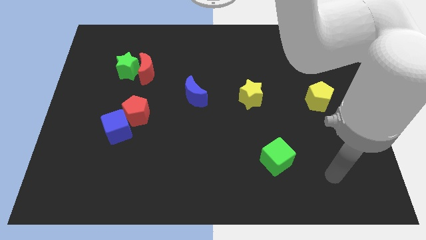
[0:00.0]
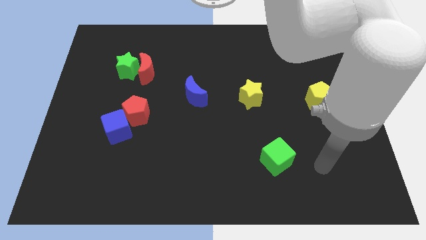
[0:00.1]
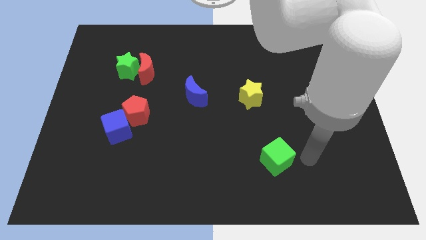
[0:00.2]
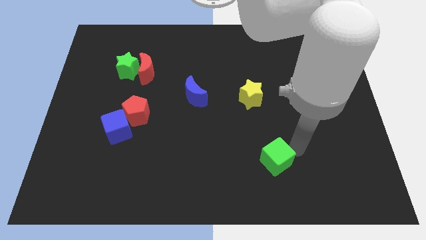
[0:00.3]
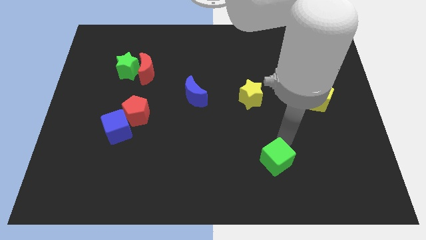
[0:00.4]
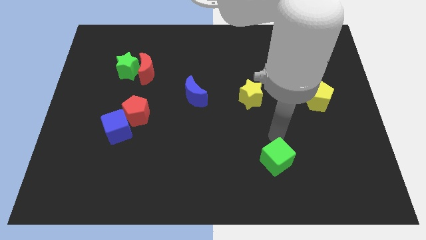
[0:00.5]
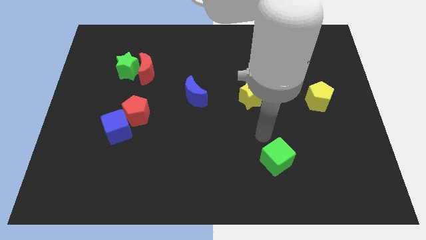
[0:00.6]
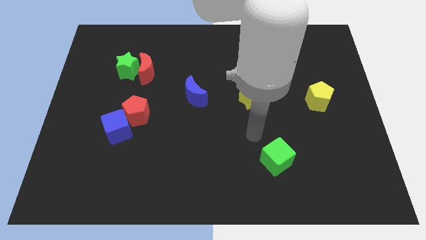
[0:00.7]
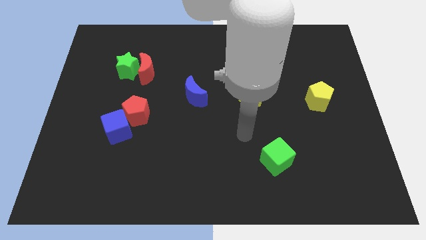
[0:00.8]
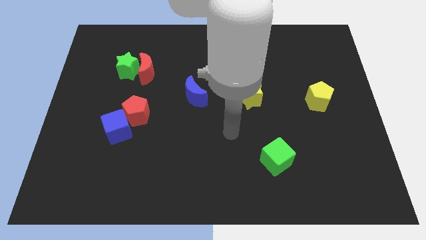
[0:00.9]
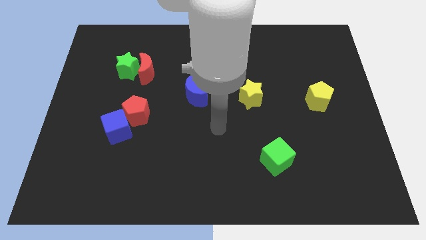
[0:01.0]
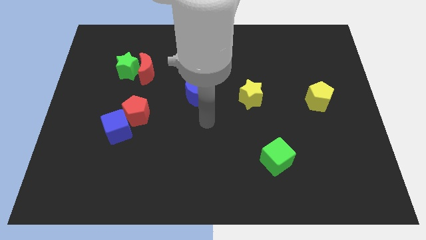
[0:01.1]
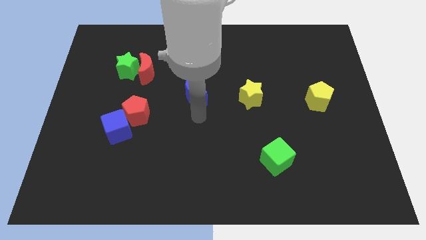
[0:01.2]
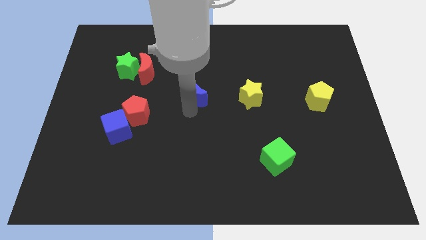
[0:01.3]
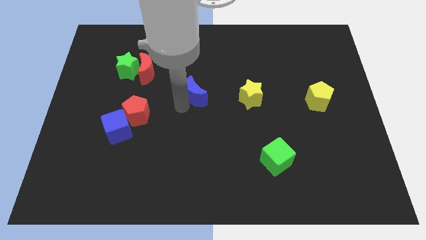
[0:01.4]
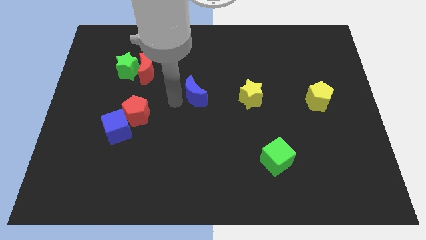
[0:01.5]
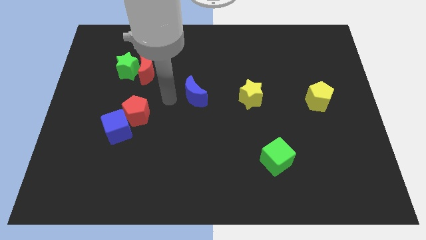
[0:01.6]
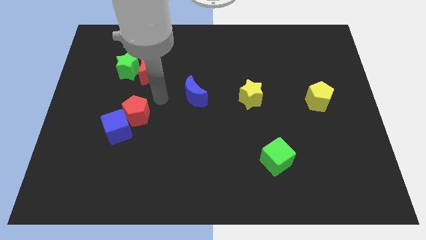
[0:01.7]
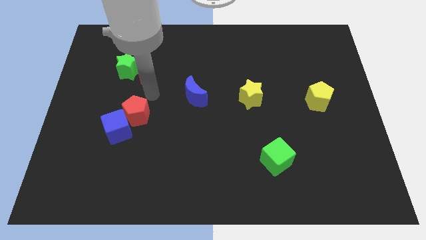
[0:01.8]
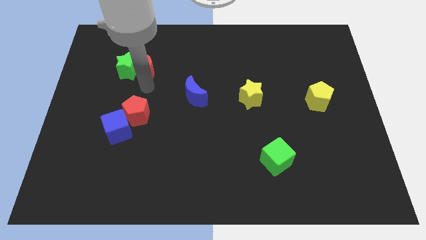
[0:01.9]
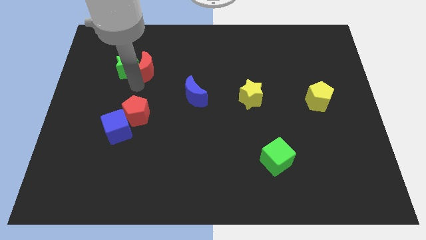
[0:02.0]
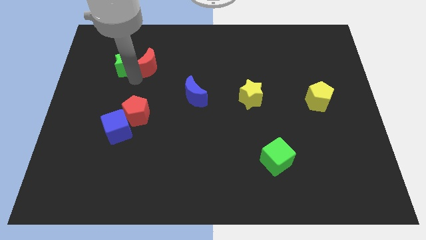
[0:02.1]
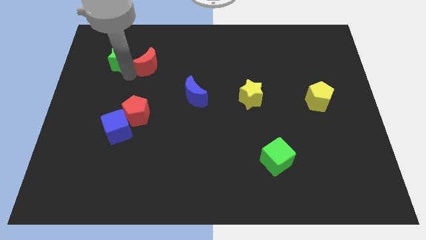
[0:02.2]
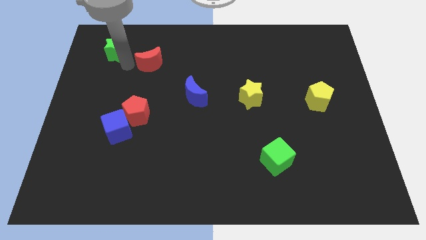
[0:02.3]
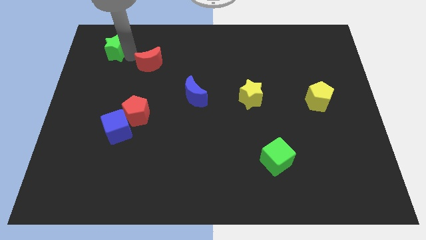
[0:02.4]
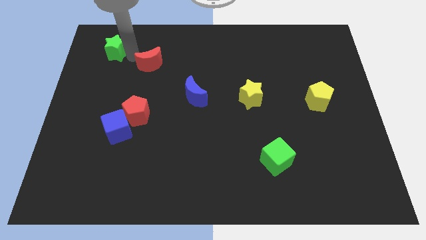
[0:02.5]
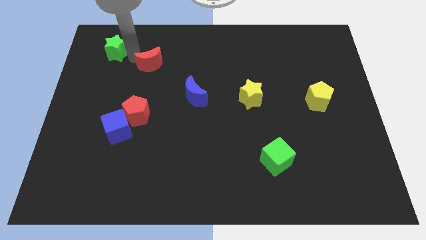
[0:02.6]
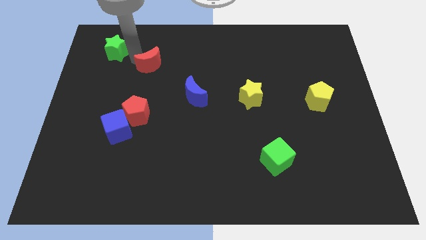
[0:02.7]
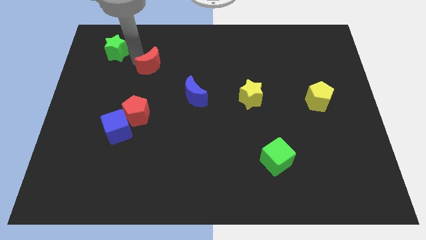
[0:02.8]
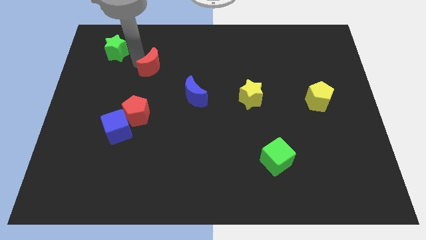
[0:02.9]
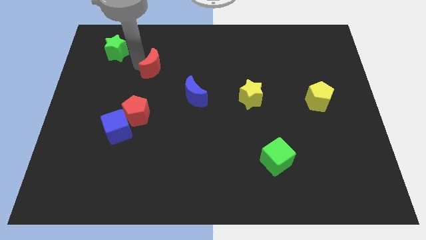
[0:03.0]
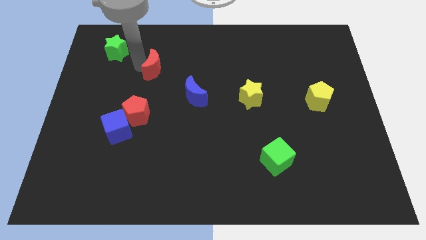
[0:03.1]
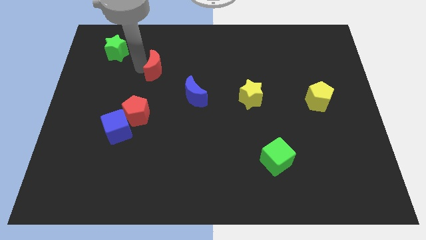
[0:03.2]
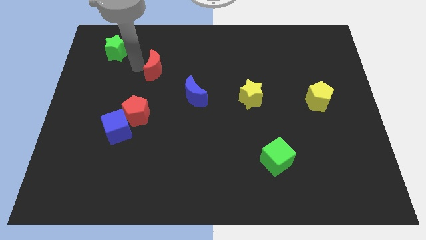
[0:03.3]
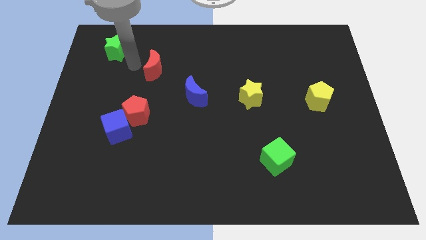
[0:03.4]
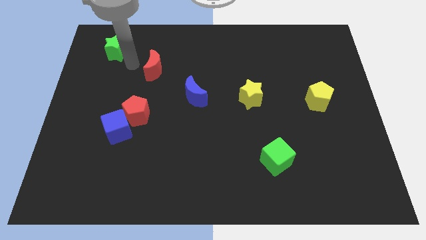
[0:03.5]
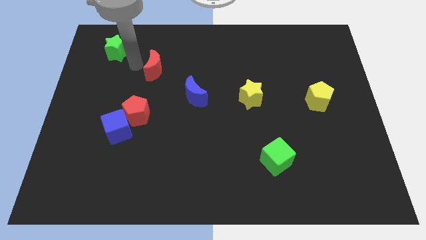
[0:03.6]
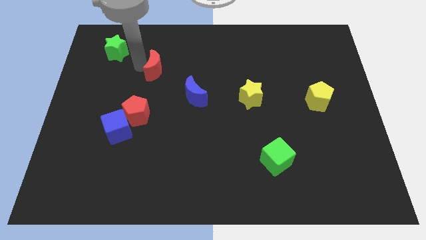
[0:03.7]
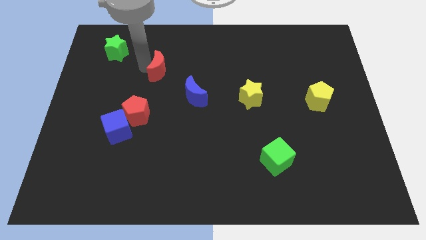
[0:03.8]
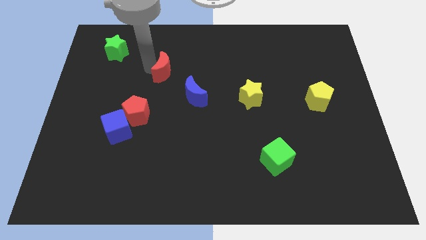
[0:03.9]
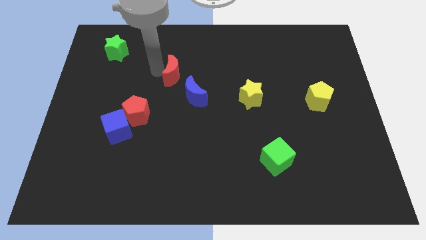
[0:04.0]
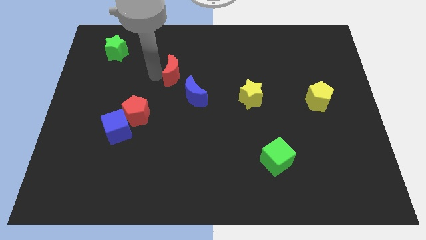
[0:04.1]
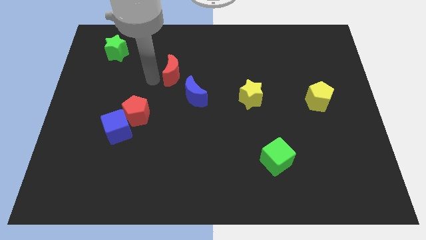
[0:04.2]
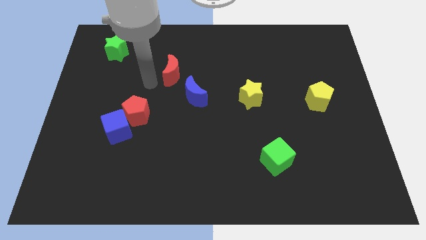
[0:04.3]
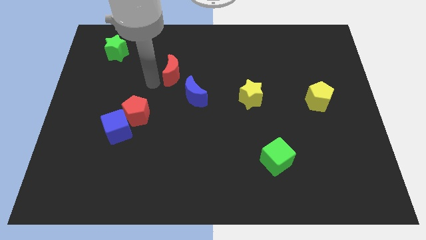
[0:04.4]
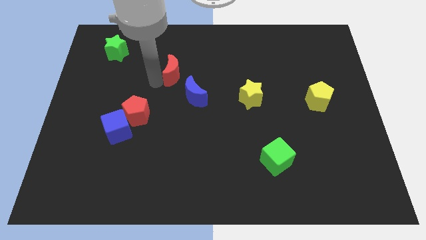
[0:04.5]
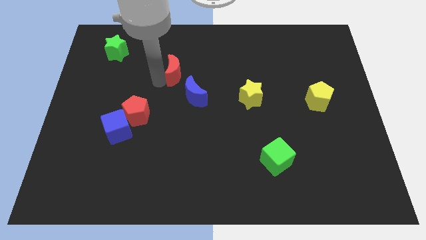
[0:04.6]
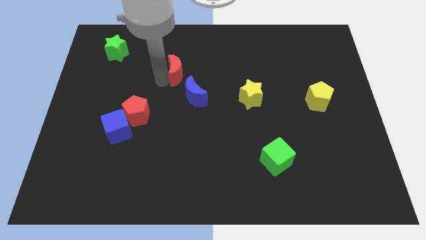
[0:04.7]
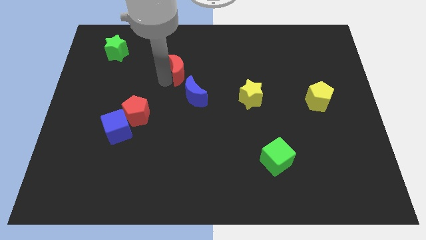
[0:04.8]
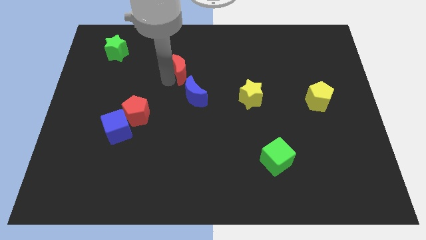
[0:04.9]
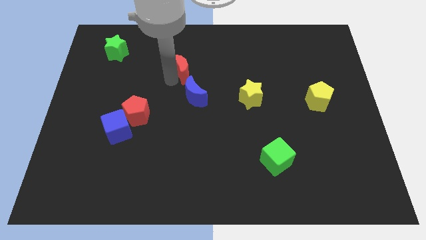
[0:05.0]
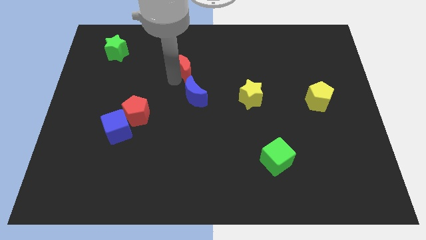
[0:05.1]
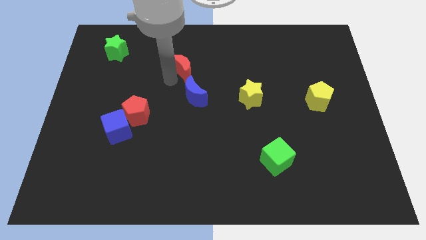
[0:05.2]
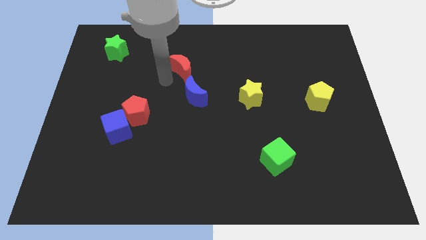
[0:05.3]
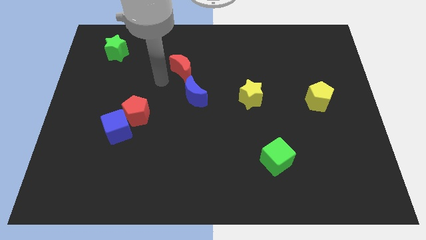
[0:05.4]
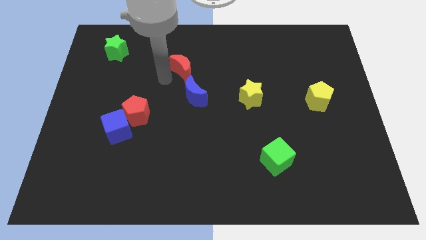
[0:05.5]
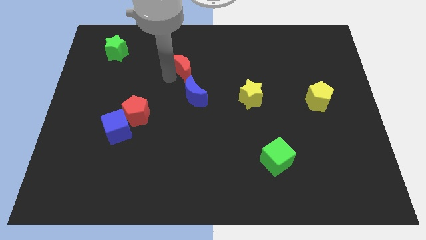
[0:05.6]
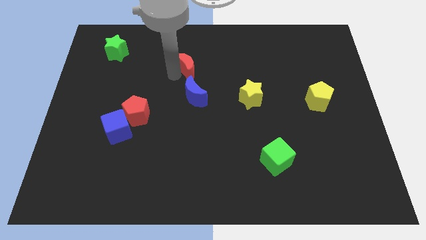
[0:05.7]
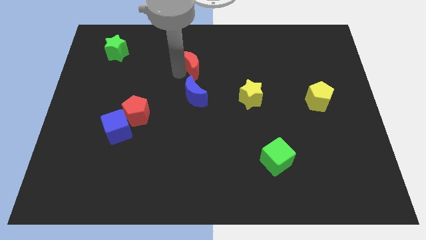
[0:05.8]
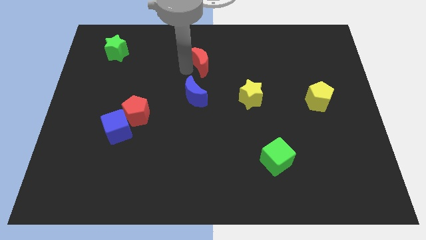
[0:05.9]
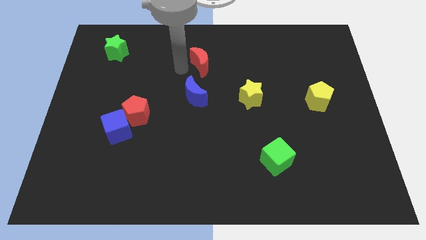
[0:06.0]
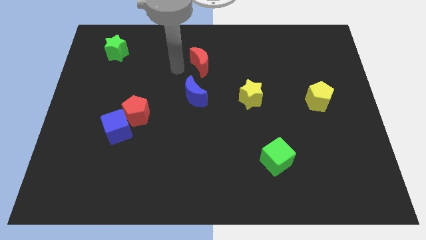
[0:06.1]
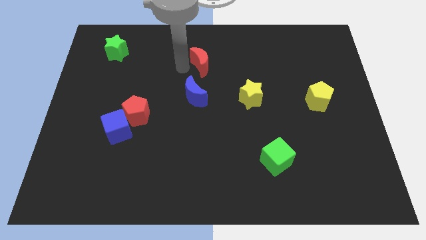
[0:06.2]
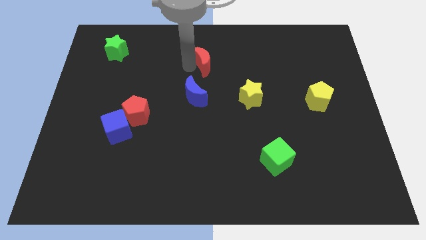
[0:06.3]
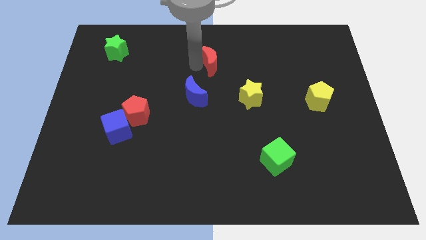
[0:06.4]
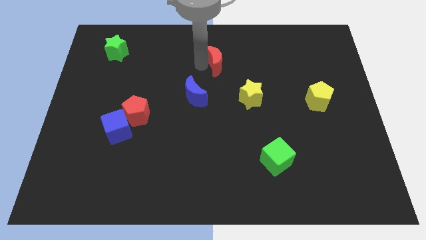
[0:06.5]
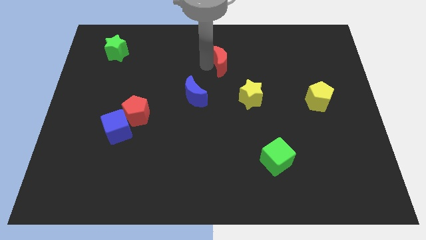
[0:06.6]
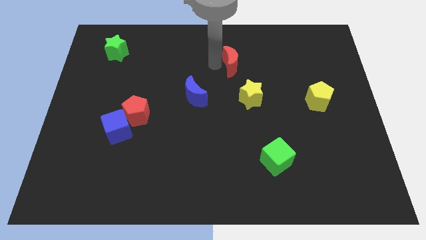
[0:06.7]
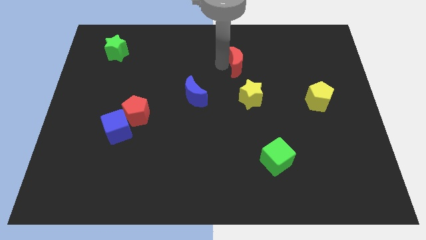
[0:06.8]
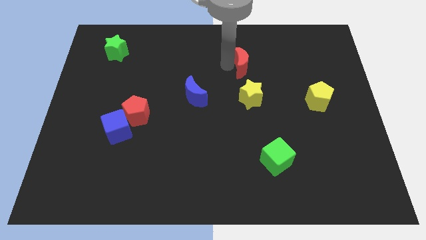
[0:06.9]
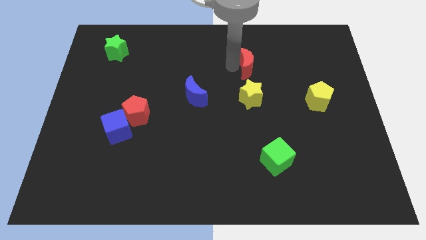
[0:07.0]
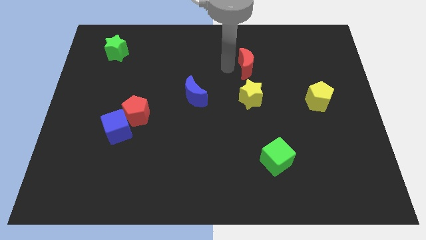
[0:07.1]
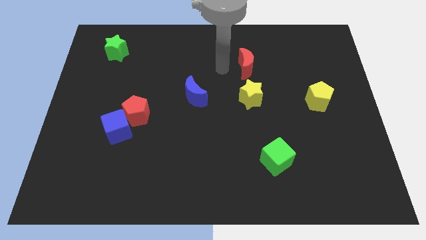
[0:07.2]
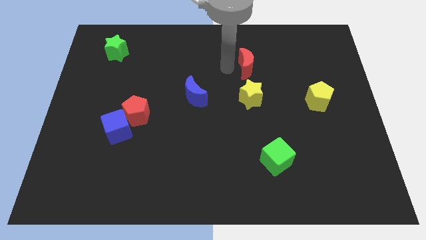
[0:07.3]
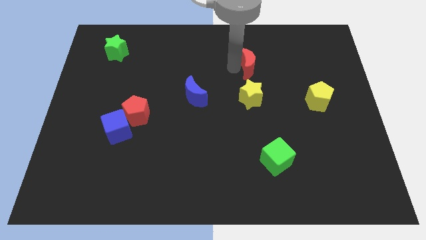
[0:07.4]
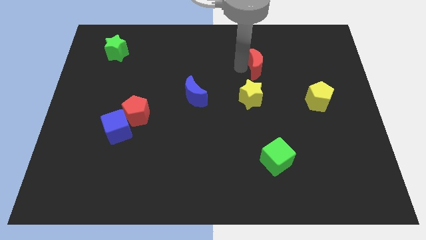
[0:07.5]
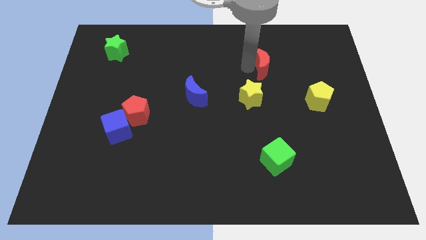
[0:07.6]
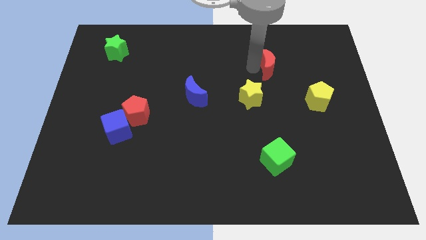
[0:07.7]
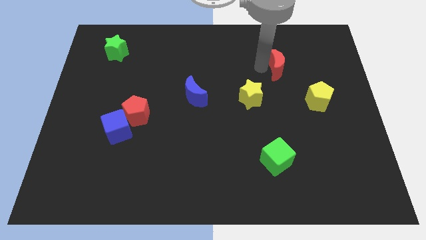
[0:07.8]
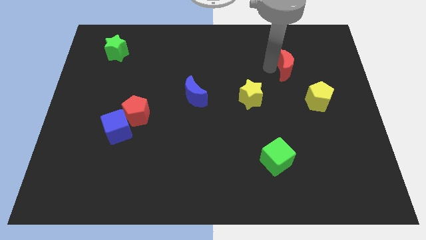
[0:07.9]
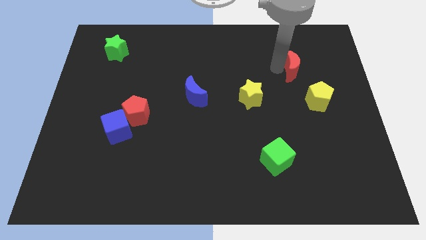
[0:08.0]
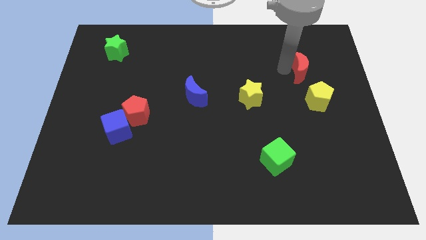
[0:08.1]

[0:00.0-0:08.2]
push the red moon to the top of the yellow pentagon
